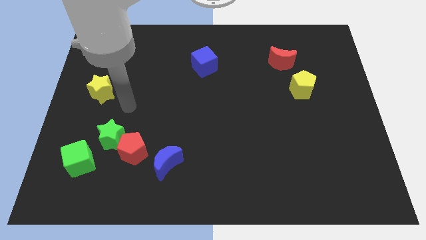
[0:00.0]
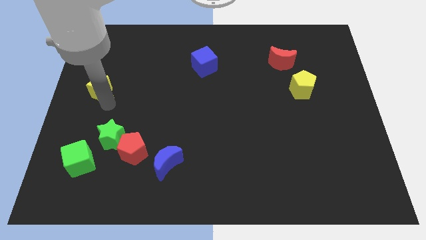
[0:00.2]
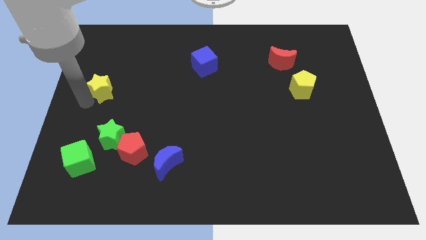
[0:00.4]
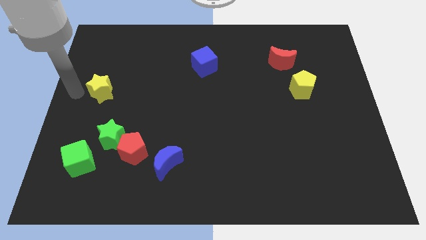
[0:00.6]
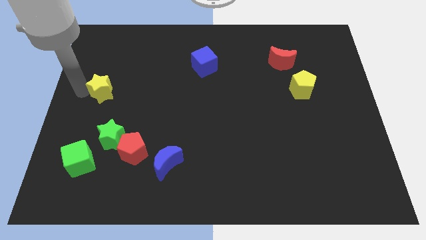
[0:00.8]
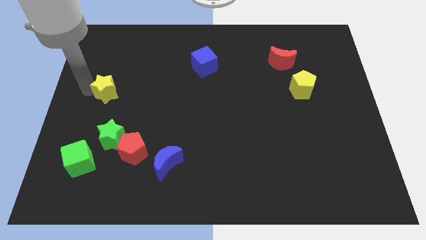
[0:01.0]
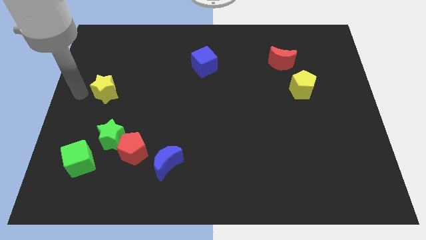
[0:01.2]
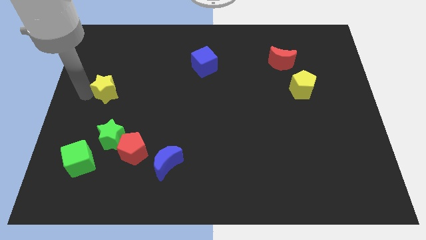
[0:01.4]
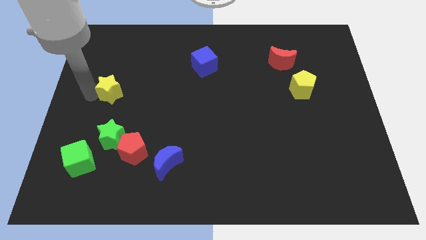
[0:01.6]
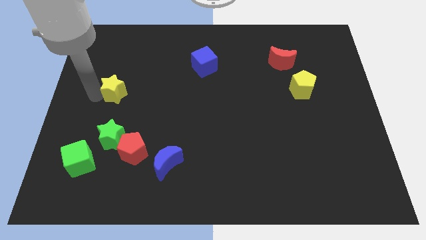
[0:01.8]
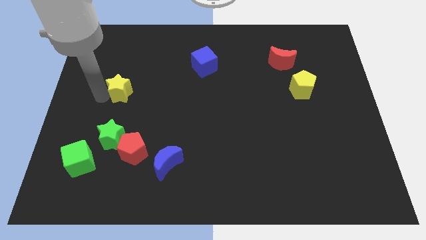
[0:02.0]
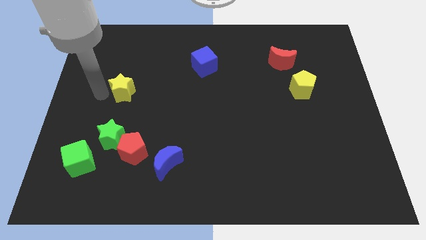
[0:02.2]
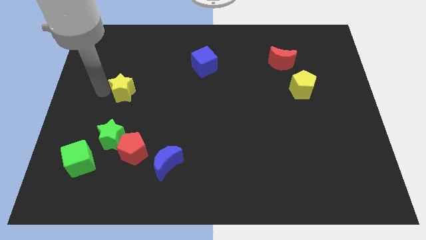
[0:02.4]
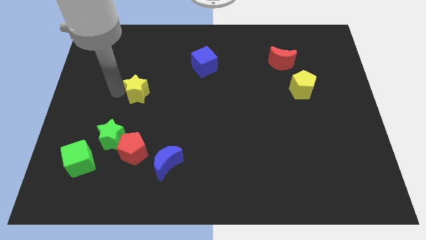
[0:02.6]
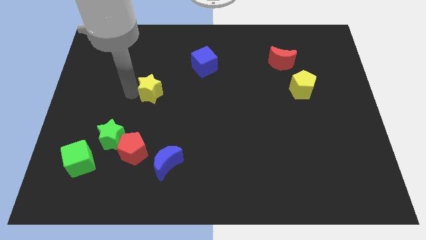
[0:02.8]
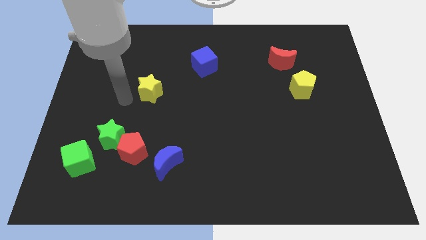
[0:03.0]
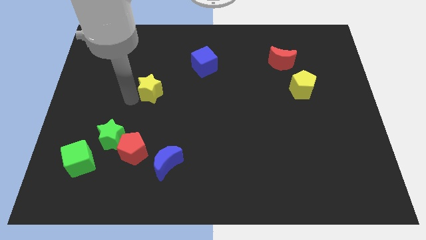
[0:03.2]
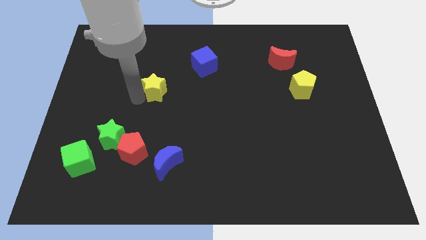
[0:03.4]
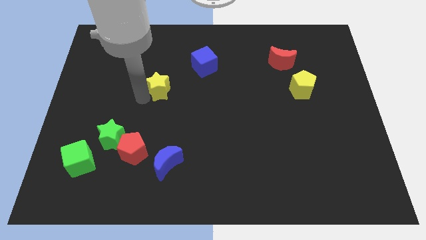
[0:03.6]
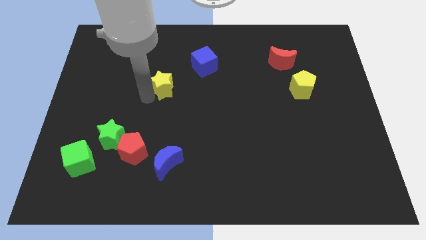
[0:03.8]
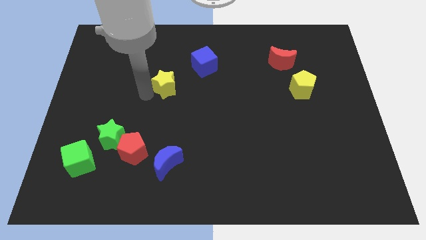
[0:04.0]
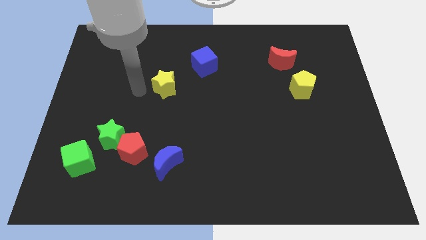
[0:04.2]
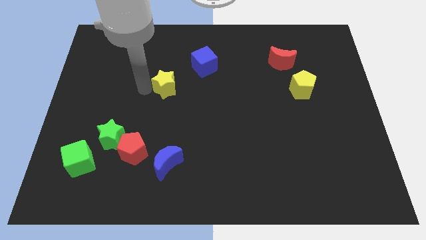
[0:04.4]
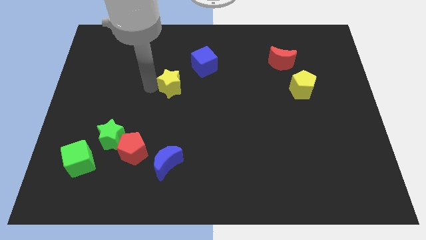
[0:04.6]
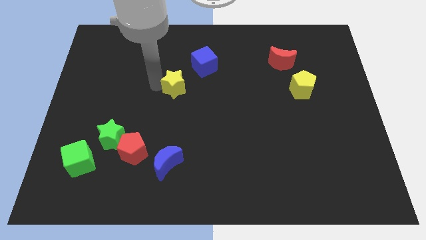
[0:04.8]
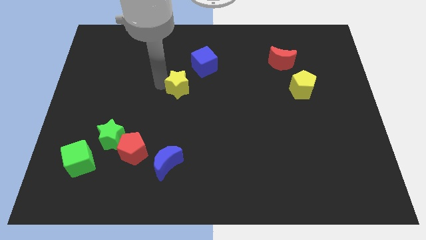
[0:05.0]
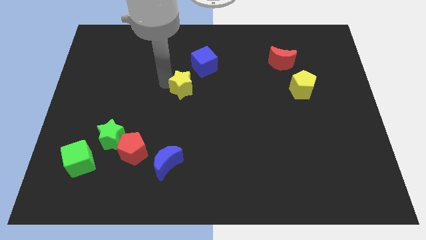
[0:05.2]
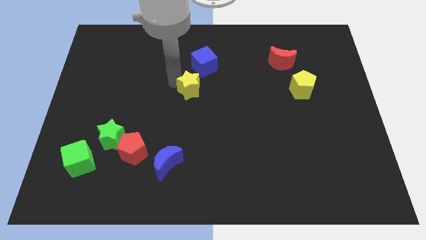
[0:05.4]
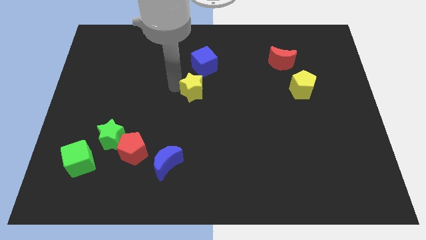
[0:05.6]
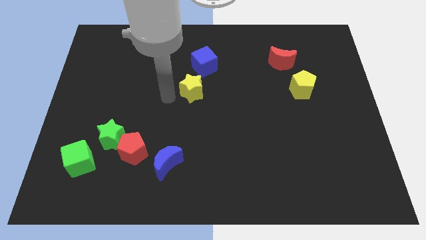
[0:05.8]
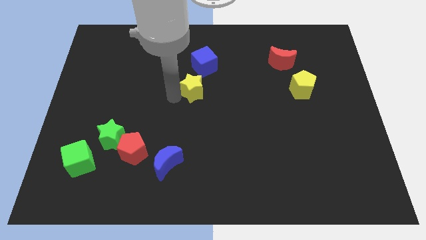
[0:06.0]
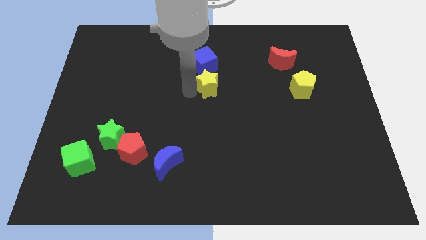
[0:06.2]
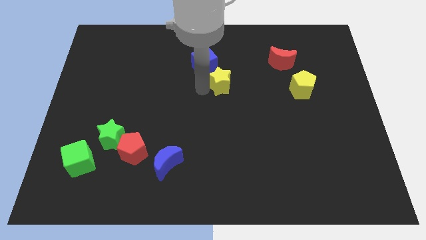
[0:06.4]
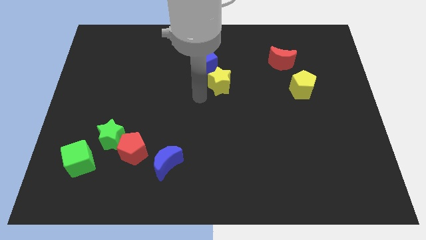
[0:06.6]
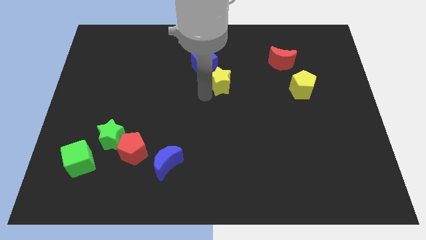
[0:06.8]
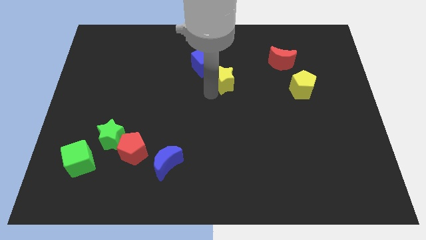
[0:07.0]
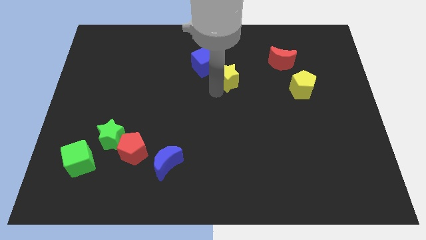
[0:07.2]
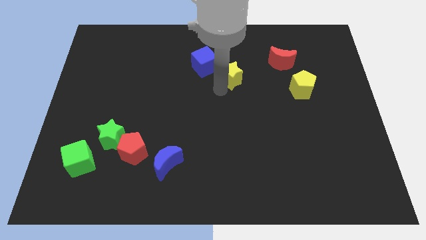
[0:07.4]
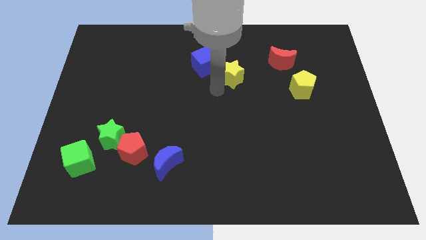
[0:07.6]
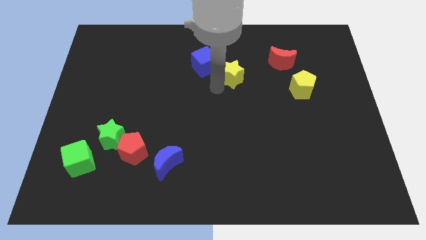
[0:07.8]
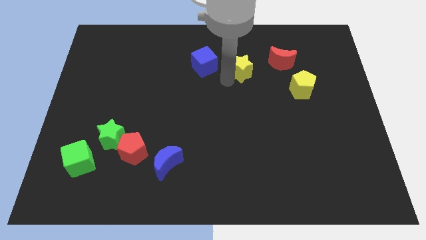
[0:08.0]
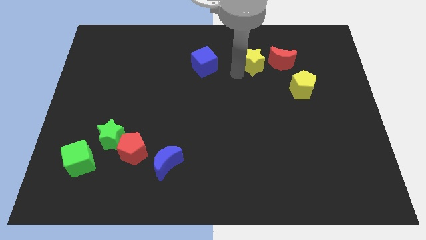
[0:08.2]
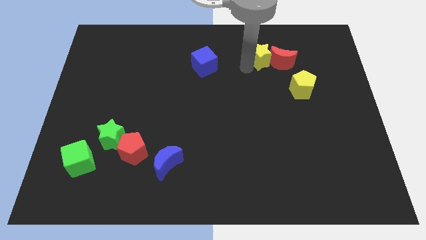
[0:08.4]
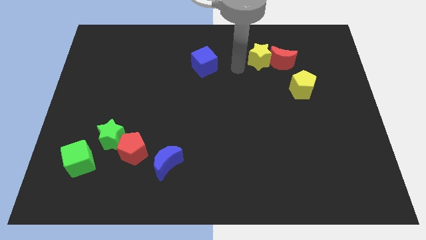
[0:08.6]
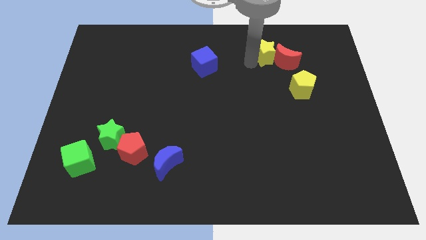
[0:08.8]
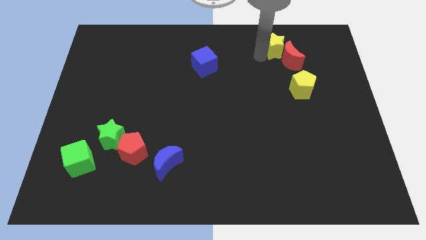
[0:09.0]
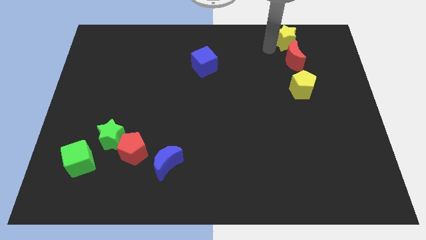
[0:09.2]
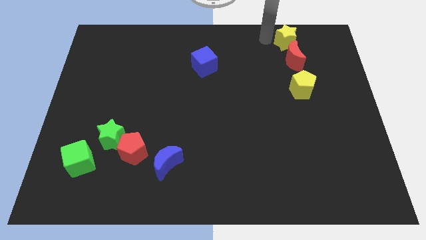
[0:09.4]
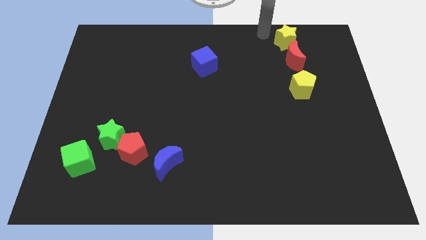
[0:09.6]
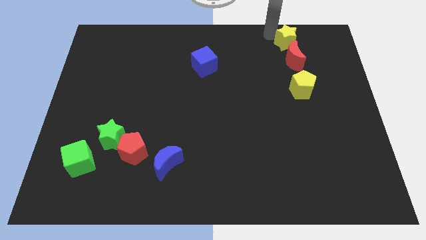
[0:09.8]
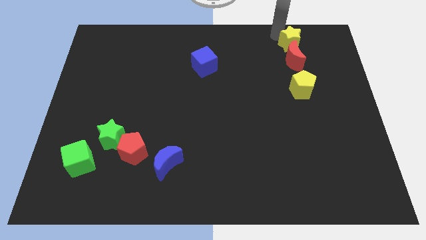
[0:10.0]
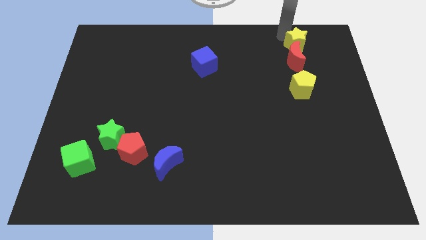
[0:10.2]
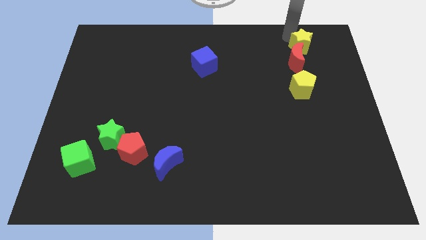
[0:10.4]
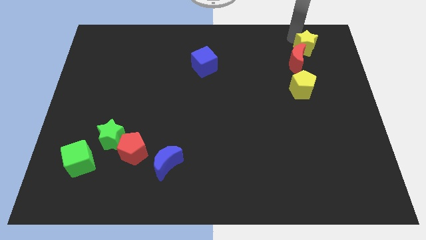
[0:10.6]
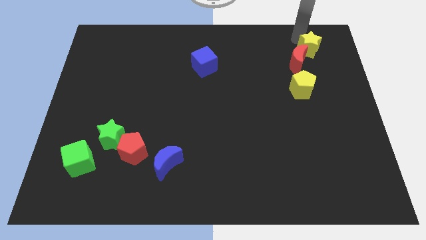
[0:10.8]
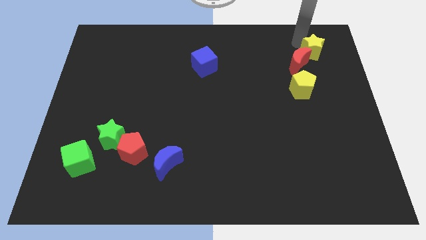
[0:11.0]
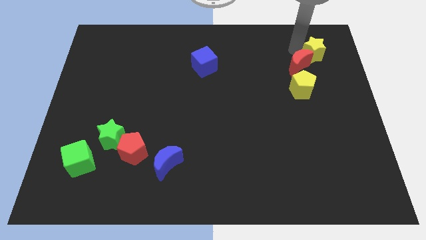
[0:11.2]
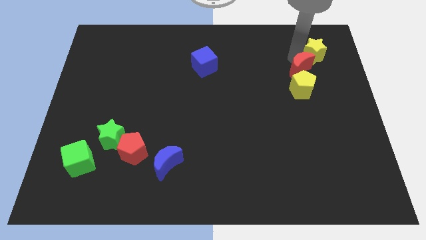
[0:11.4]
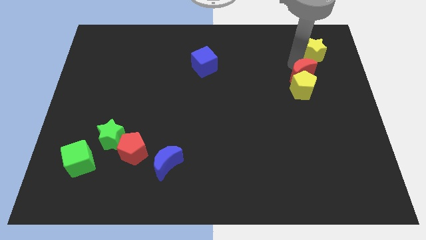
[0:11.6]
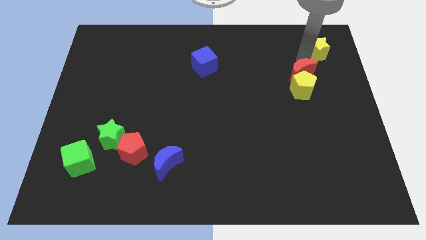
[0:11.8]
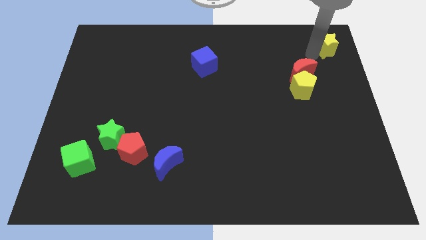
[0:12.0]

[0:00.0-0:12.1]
put the yellow star to the upper right corner

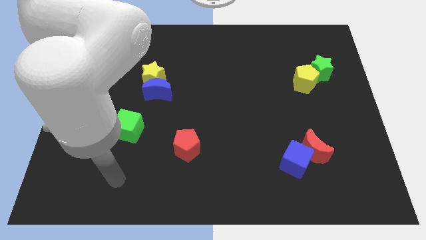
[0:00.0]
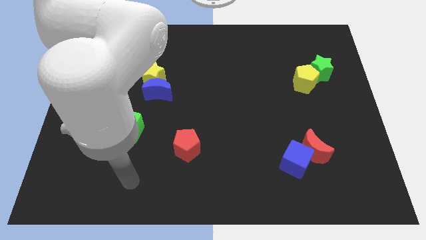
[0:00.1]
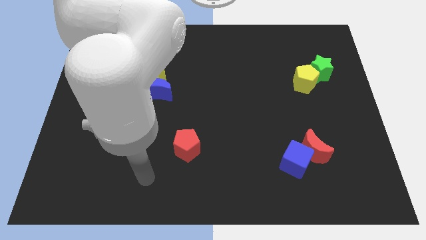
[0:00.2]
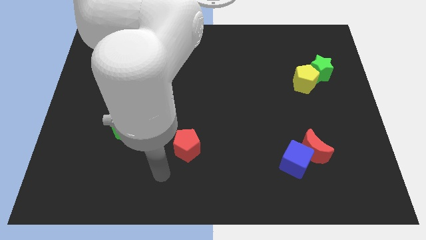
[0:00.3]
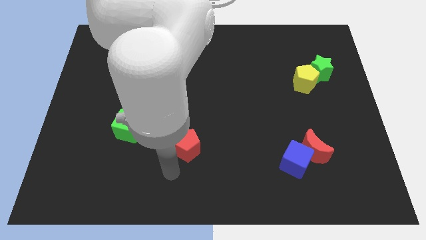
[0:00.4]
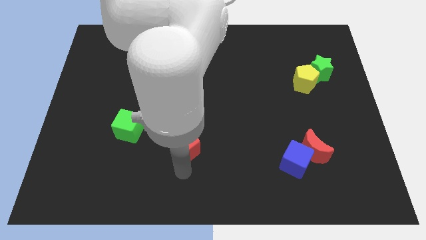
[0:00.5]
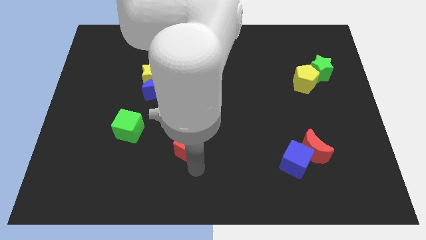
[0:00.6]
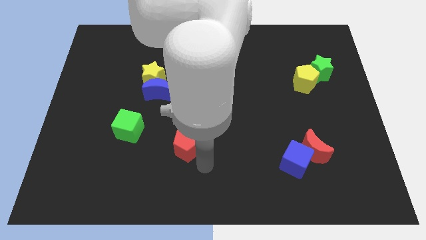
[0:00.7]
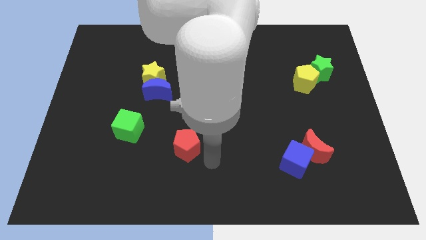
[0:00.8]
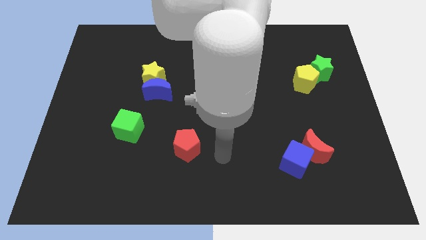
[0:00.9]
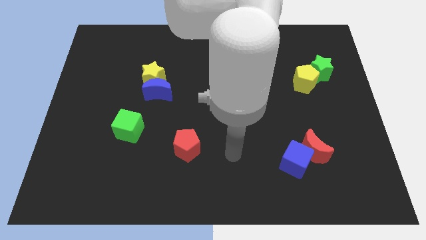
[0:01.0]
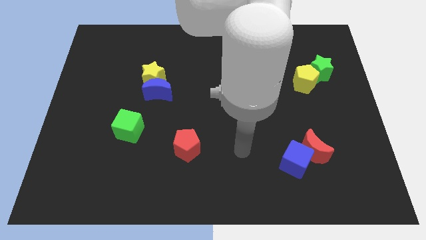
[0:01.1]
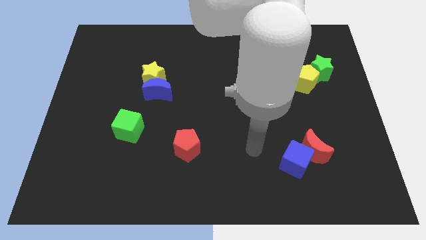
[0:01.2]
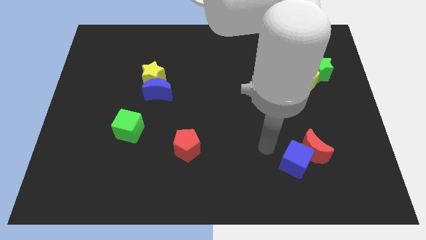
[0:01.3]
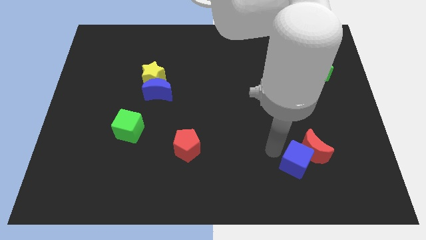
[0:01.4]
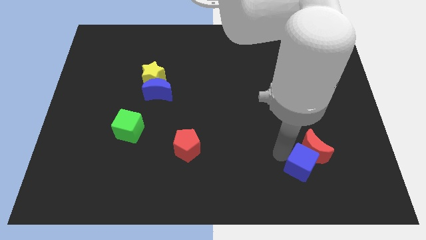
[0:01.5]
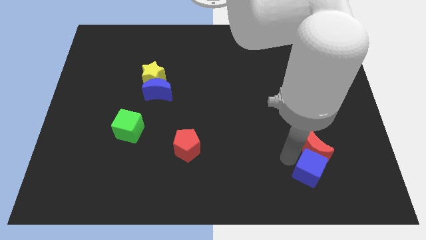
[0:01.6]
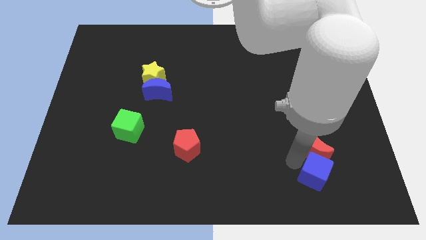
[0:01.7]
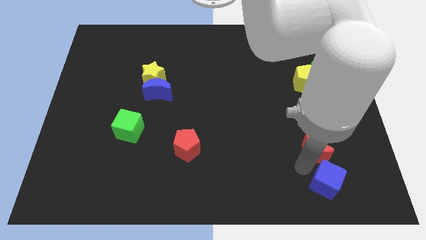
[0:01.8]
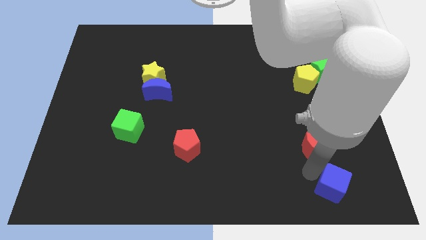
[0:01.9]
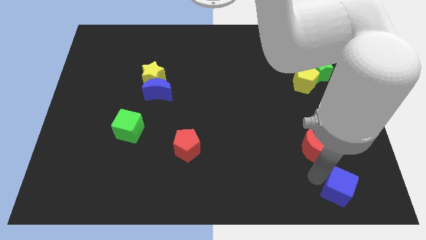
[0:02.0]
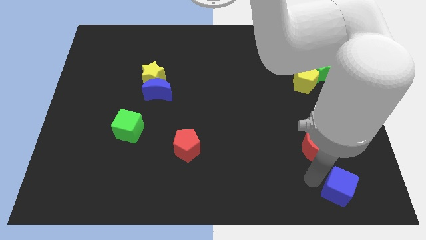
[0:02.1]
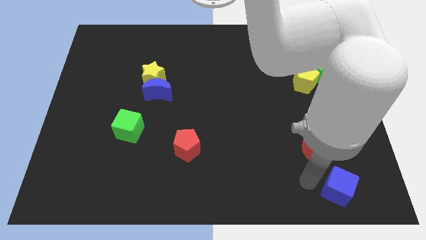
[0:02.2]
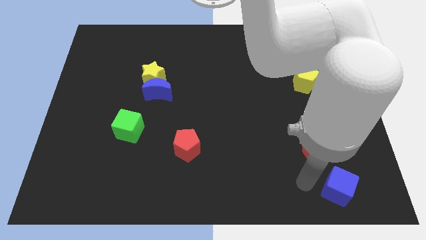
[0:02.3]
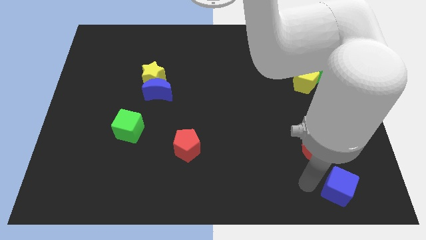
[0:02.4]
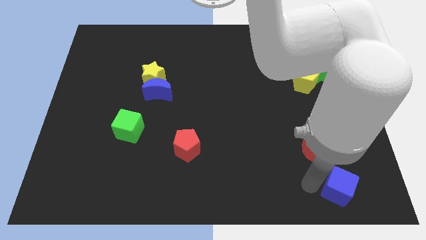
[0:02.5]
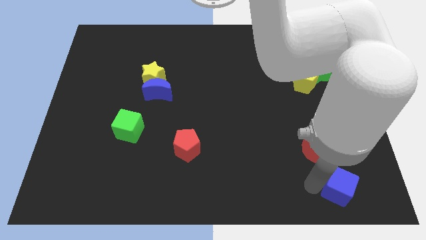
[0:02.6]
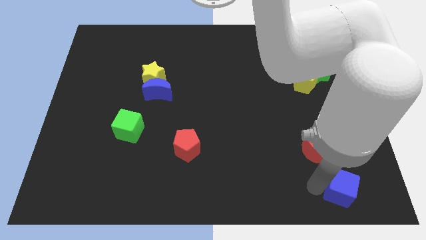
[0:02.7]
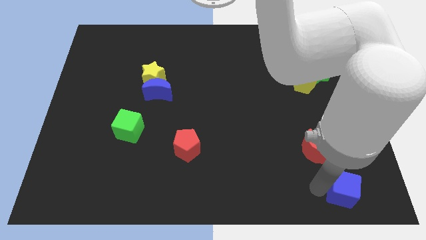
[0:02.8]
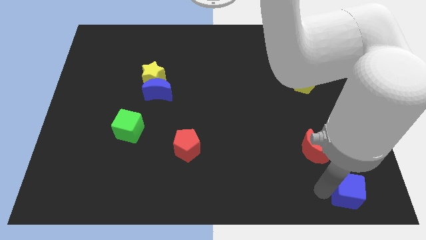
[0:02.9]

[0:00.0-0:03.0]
slide the blue cube to the bottom right
